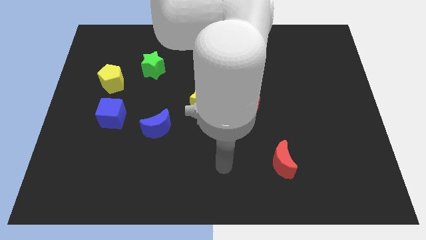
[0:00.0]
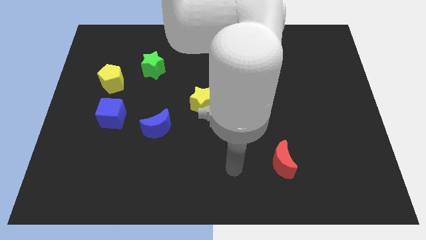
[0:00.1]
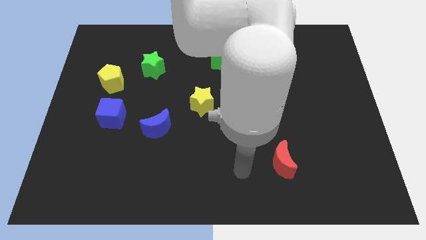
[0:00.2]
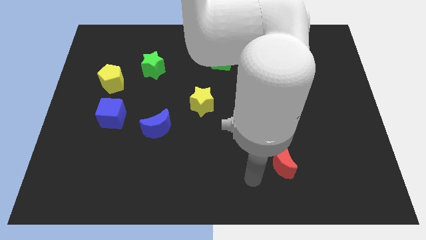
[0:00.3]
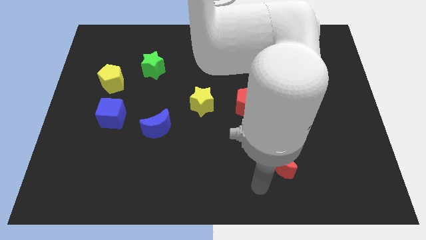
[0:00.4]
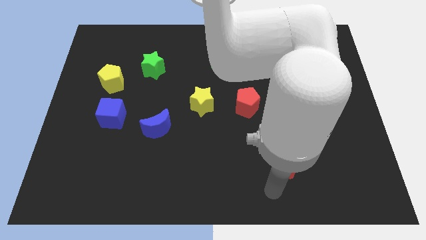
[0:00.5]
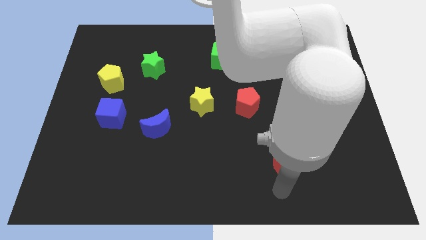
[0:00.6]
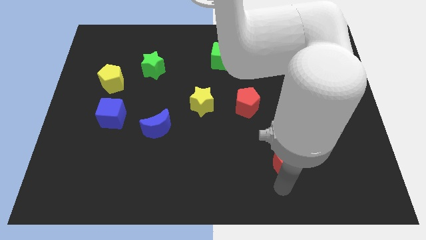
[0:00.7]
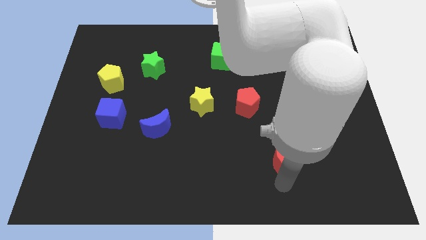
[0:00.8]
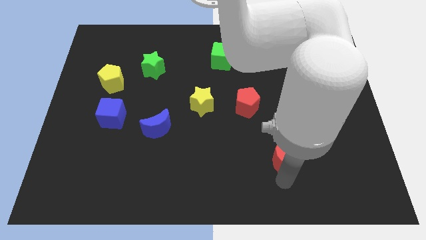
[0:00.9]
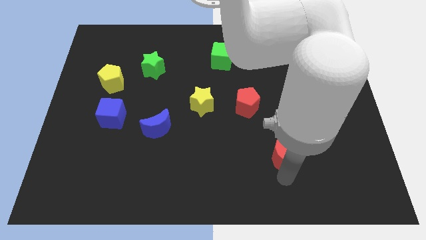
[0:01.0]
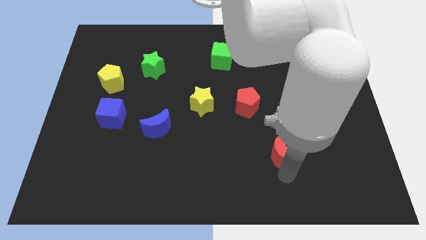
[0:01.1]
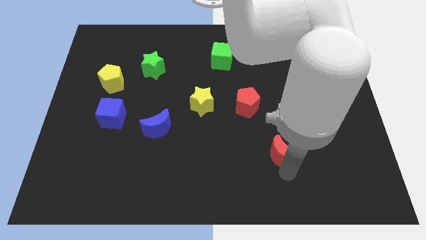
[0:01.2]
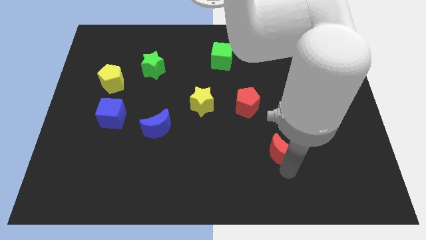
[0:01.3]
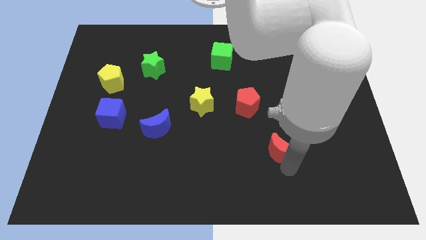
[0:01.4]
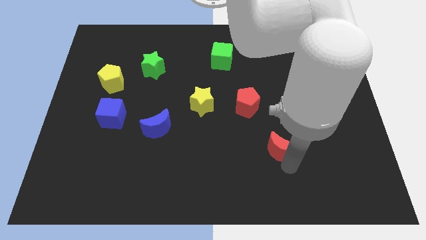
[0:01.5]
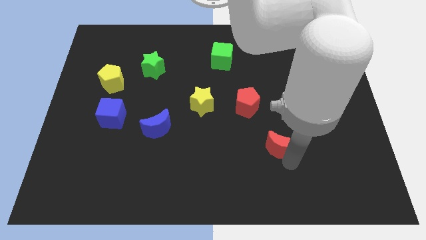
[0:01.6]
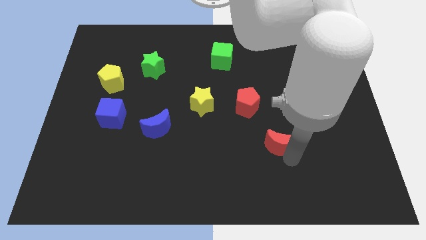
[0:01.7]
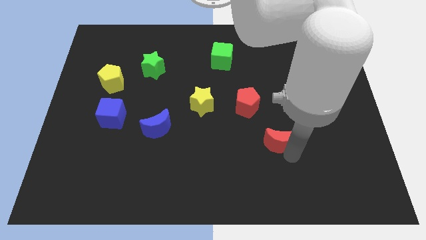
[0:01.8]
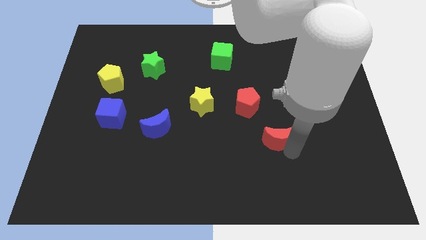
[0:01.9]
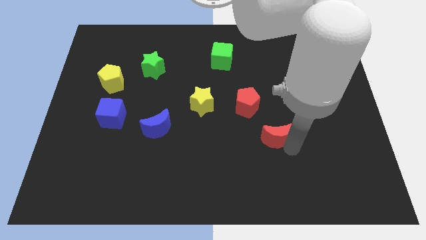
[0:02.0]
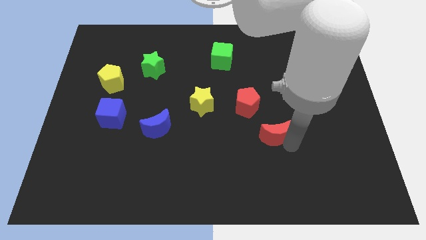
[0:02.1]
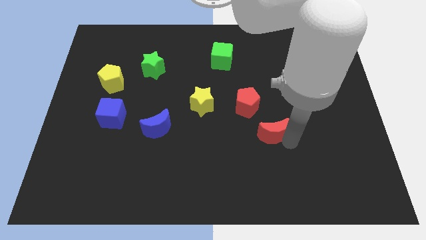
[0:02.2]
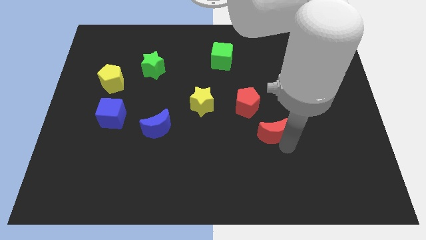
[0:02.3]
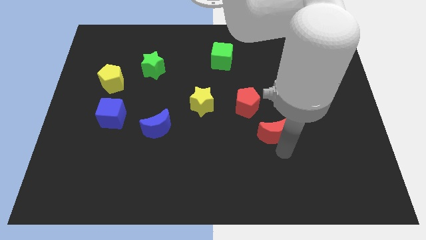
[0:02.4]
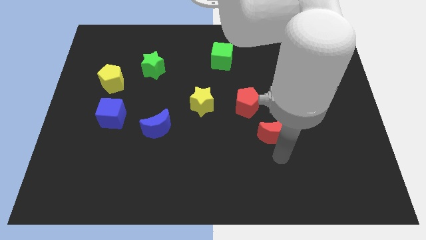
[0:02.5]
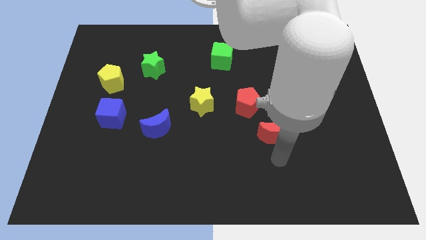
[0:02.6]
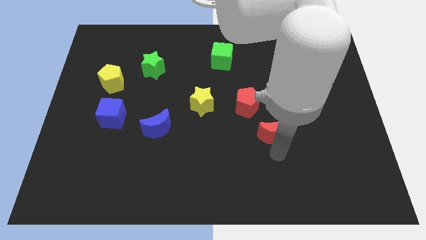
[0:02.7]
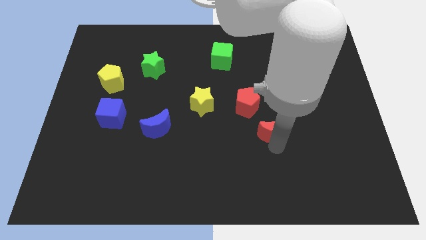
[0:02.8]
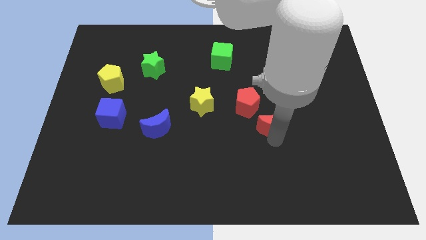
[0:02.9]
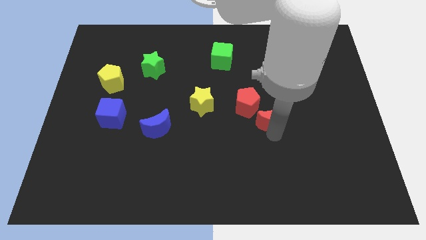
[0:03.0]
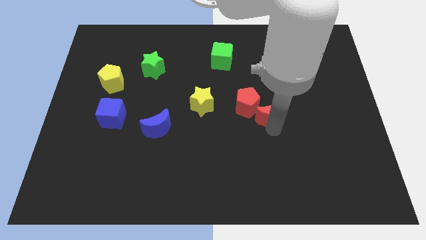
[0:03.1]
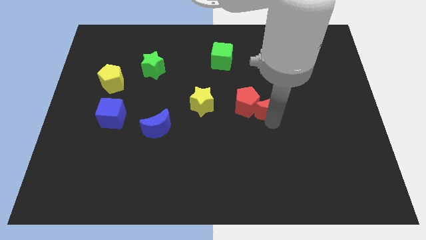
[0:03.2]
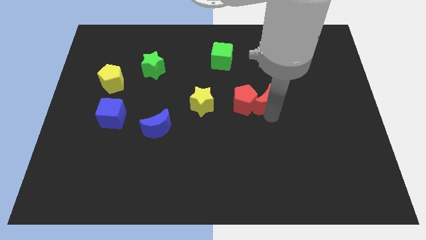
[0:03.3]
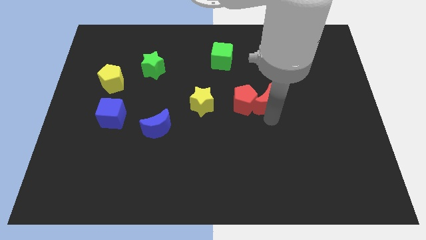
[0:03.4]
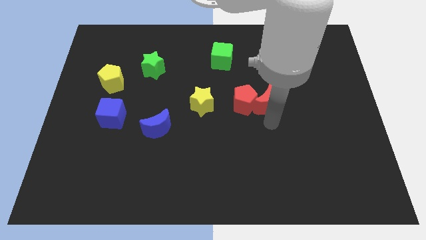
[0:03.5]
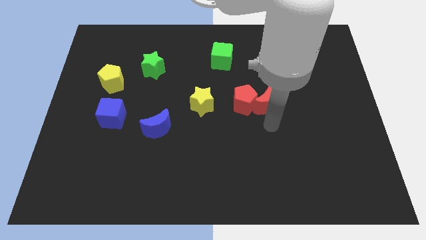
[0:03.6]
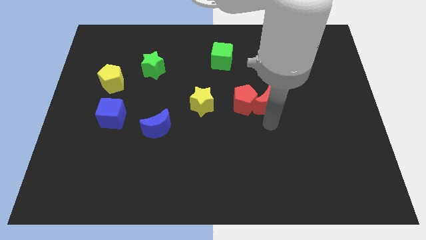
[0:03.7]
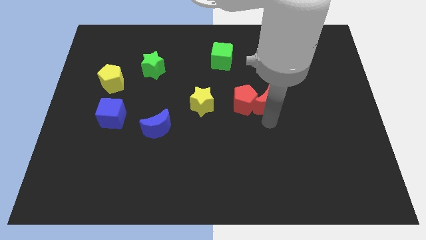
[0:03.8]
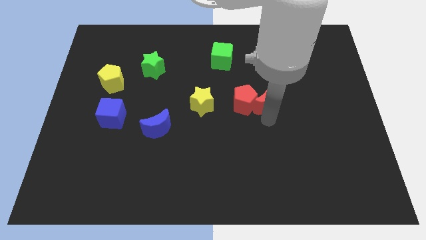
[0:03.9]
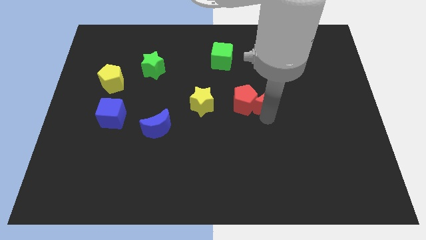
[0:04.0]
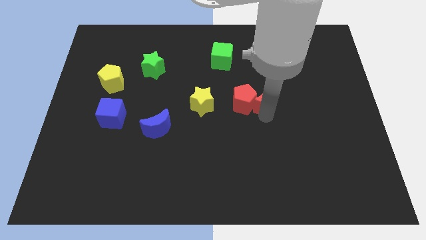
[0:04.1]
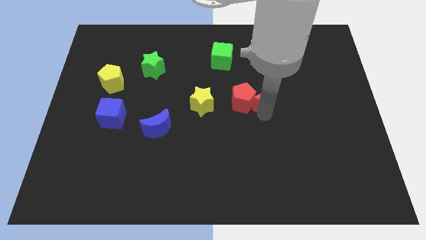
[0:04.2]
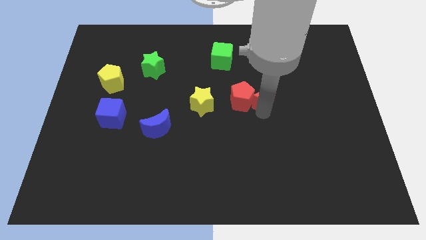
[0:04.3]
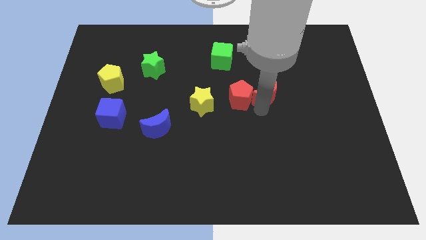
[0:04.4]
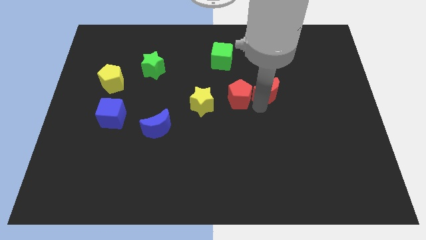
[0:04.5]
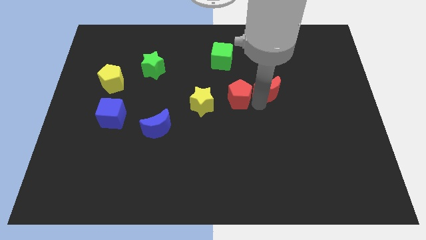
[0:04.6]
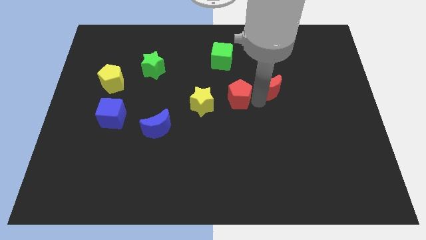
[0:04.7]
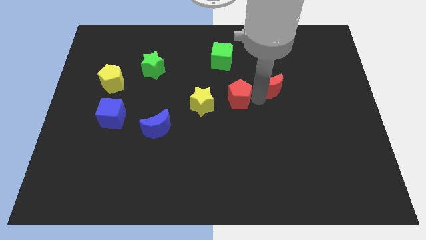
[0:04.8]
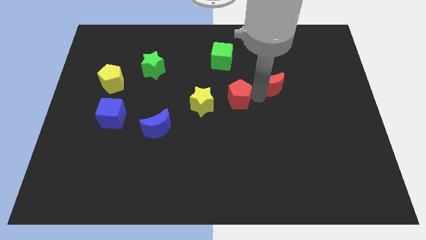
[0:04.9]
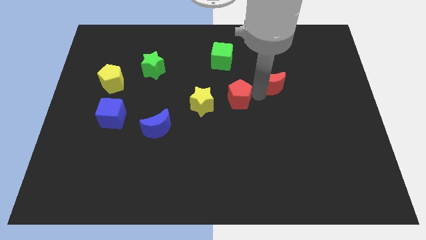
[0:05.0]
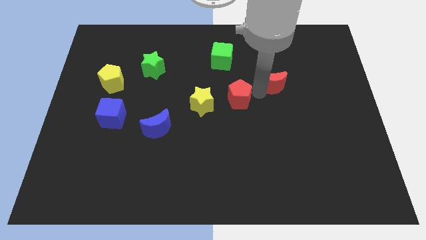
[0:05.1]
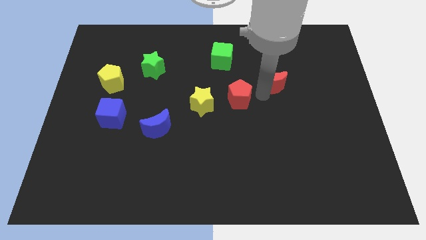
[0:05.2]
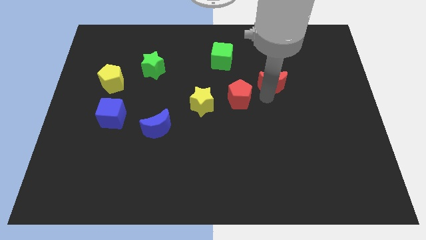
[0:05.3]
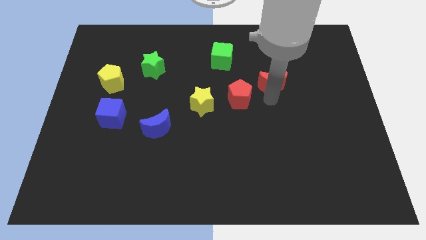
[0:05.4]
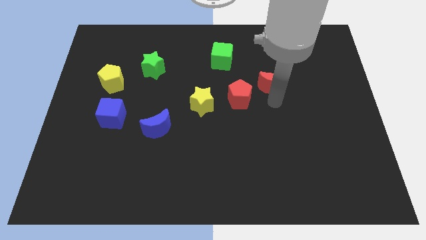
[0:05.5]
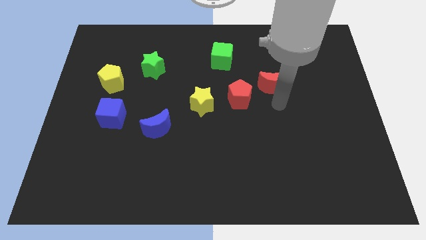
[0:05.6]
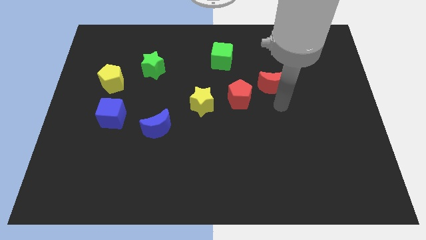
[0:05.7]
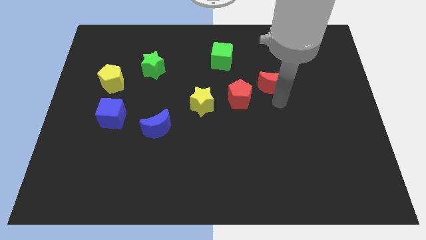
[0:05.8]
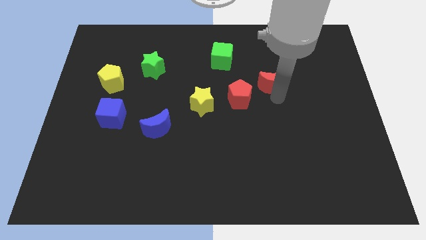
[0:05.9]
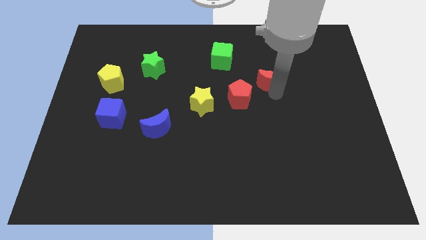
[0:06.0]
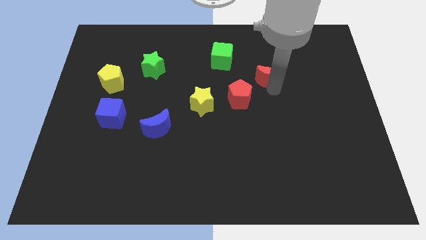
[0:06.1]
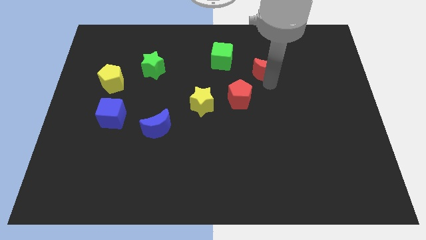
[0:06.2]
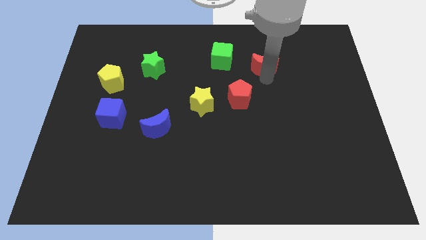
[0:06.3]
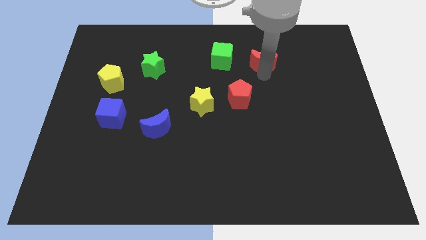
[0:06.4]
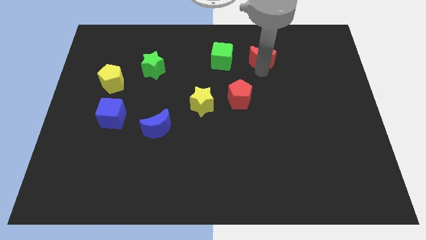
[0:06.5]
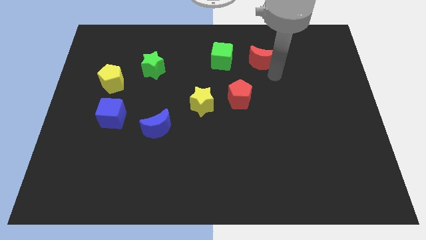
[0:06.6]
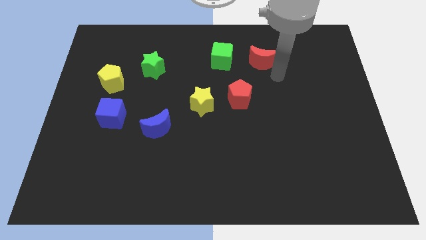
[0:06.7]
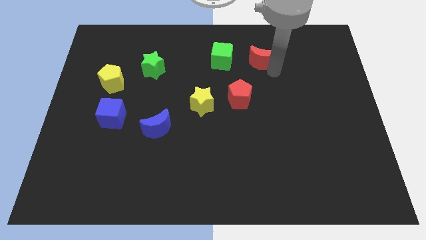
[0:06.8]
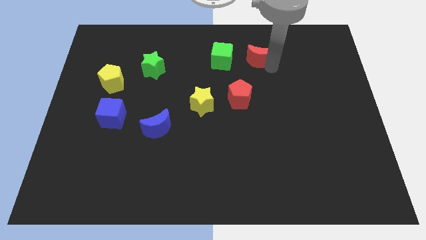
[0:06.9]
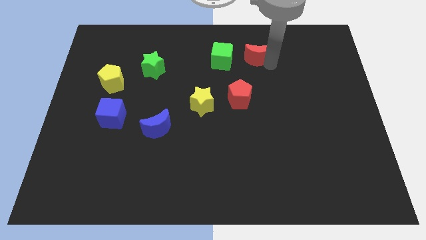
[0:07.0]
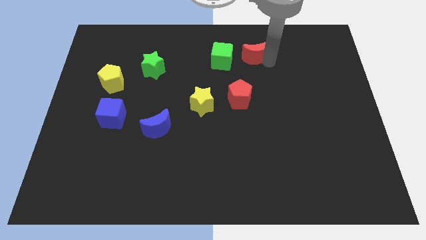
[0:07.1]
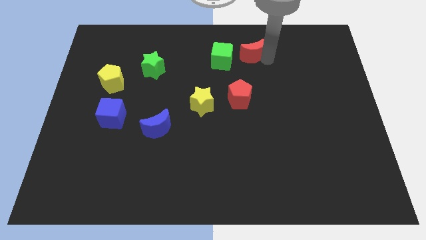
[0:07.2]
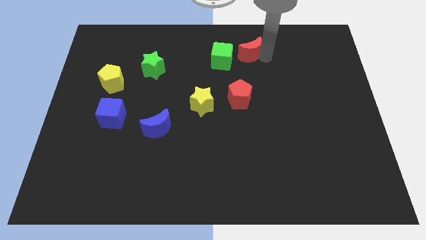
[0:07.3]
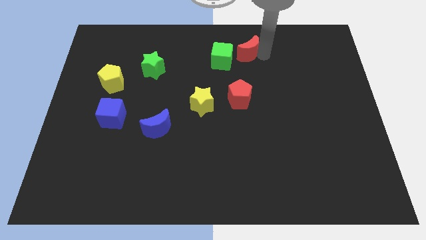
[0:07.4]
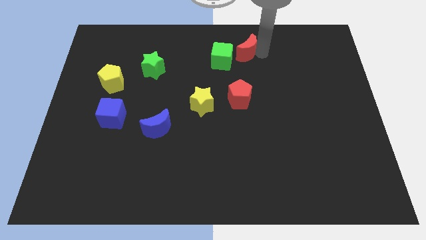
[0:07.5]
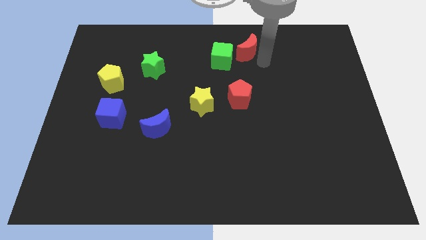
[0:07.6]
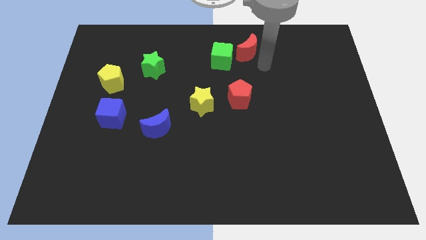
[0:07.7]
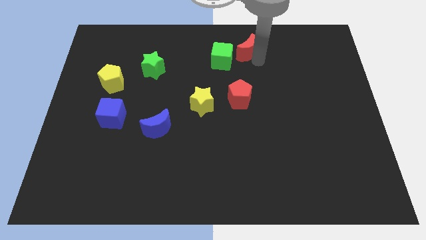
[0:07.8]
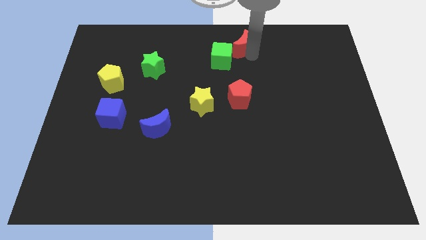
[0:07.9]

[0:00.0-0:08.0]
slide the red moon to the top
